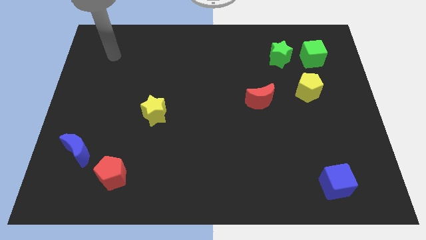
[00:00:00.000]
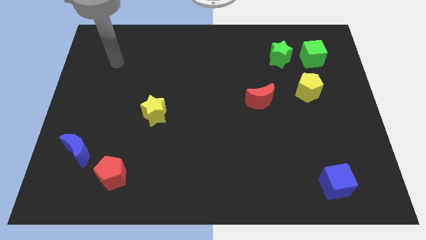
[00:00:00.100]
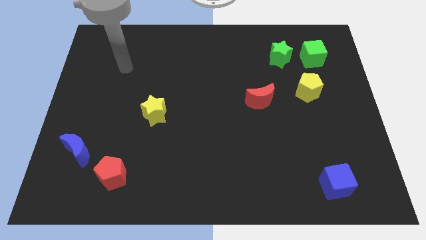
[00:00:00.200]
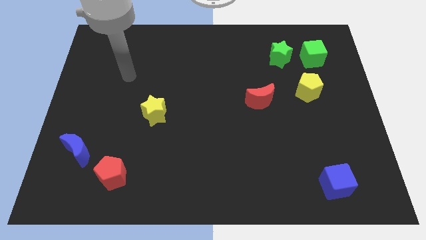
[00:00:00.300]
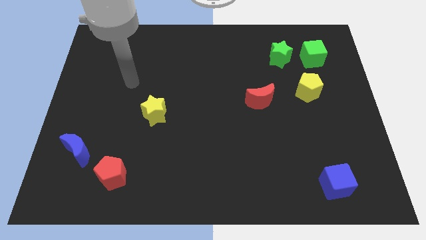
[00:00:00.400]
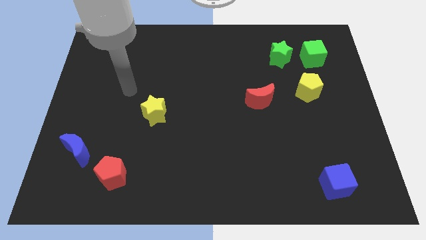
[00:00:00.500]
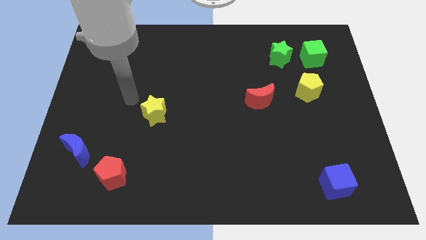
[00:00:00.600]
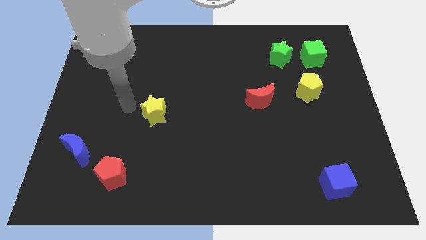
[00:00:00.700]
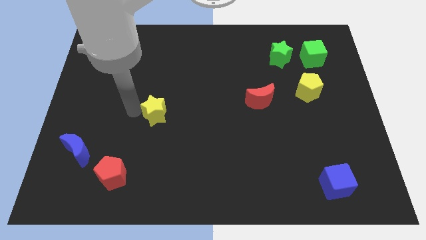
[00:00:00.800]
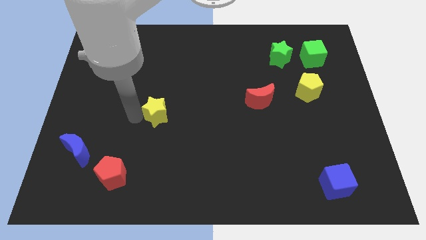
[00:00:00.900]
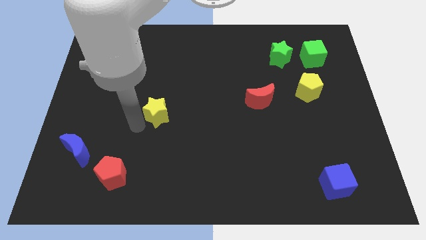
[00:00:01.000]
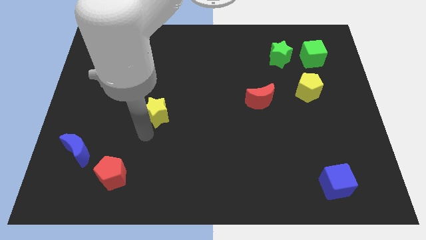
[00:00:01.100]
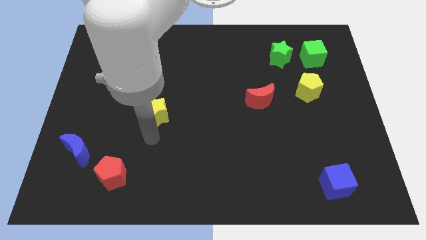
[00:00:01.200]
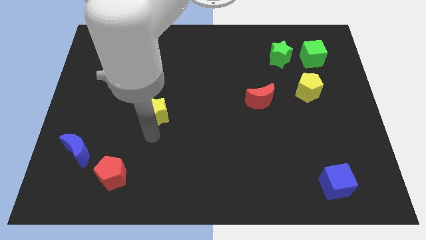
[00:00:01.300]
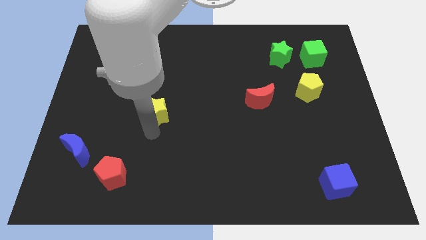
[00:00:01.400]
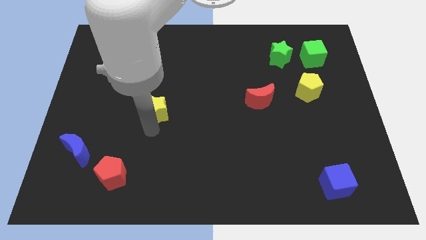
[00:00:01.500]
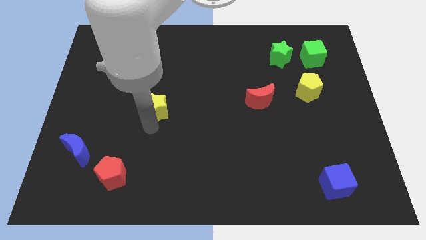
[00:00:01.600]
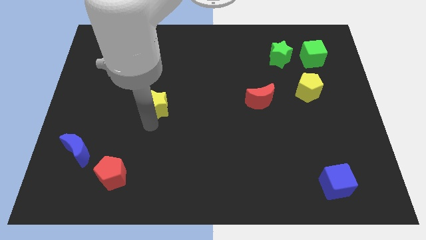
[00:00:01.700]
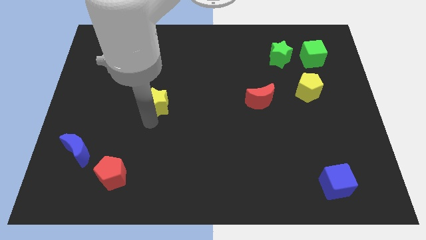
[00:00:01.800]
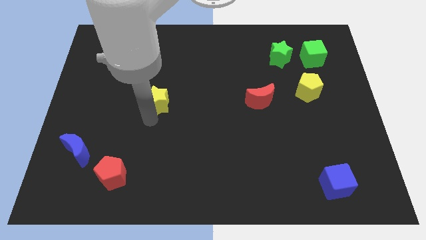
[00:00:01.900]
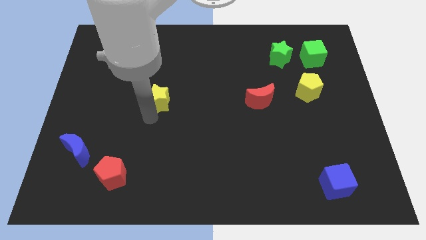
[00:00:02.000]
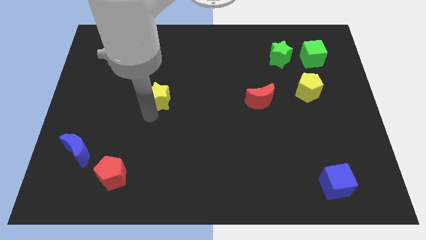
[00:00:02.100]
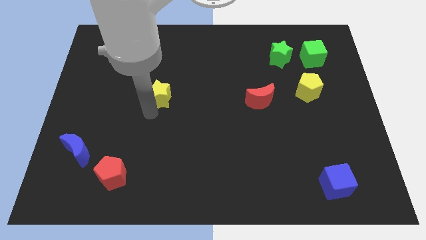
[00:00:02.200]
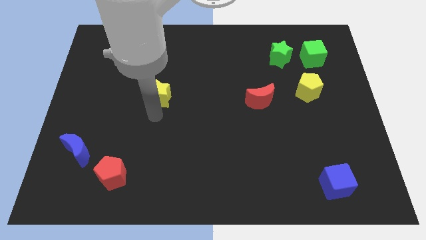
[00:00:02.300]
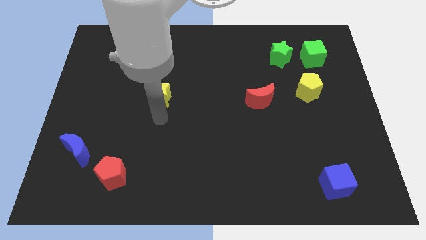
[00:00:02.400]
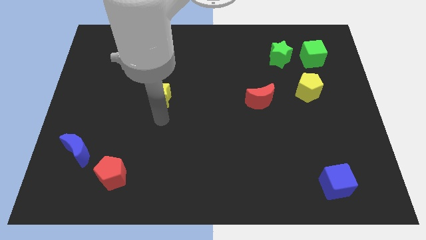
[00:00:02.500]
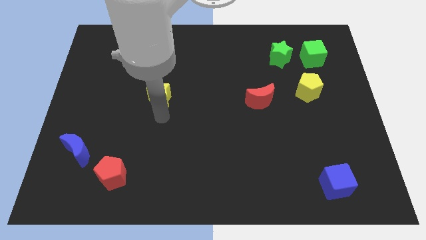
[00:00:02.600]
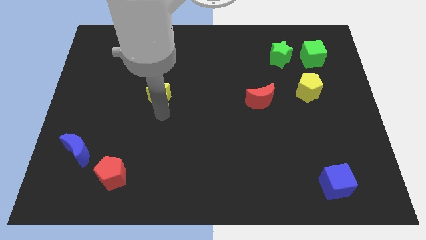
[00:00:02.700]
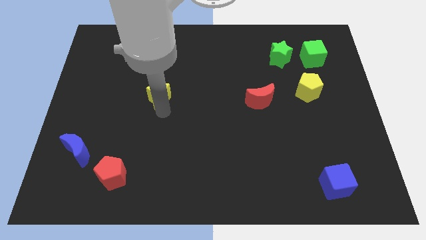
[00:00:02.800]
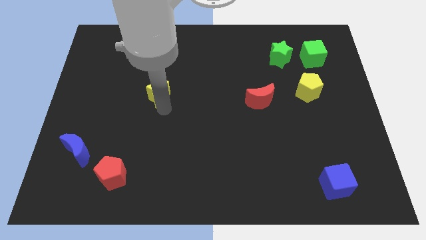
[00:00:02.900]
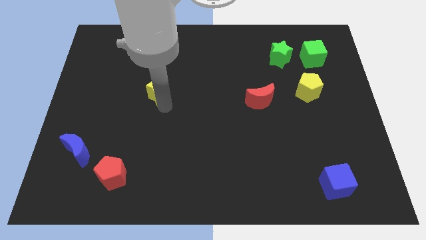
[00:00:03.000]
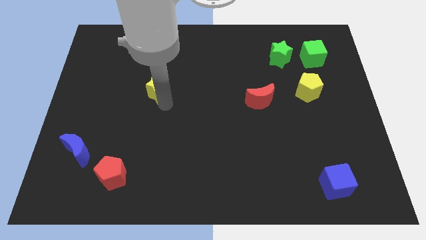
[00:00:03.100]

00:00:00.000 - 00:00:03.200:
push the yellow star a bit up

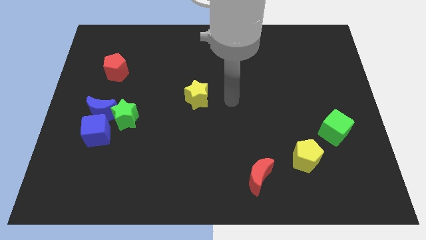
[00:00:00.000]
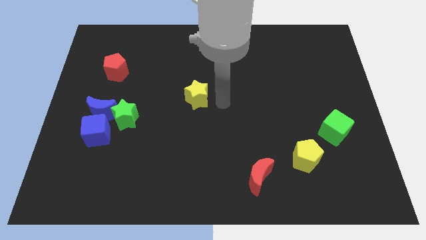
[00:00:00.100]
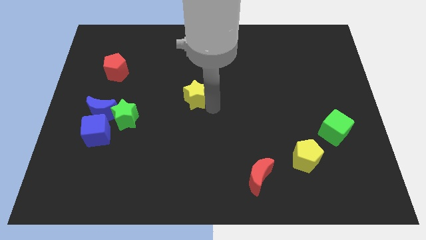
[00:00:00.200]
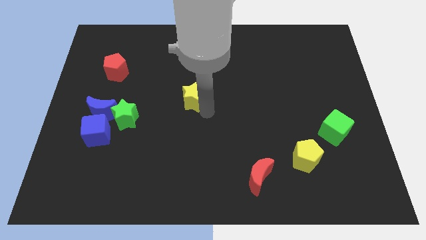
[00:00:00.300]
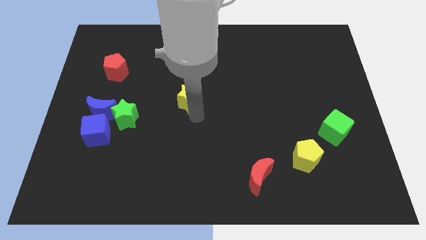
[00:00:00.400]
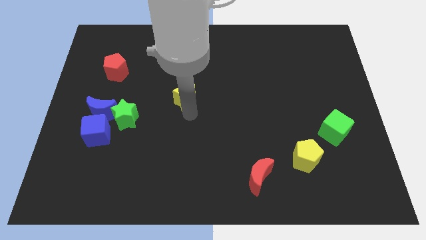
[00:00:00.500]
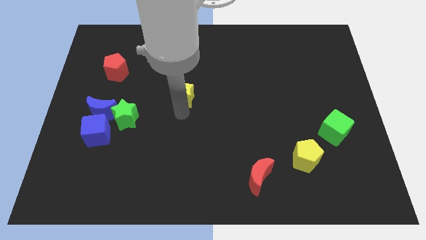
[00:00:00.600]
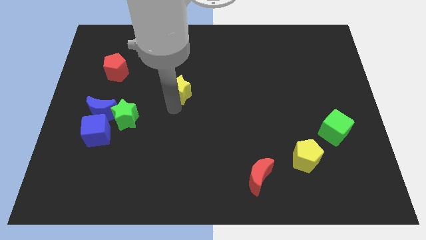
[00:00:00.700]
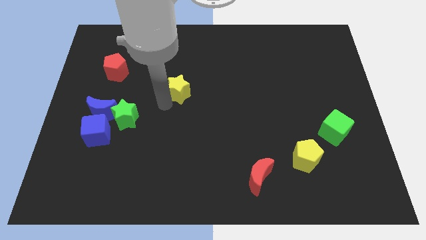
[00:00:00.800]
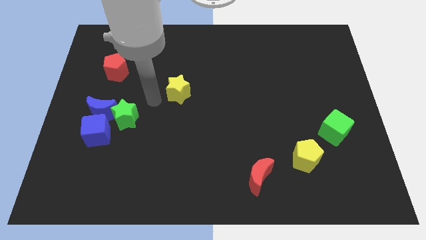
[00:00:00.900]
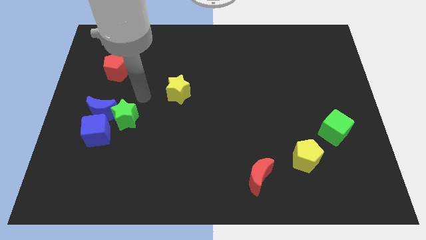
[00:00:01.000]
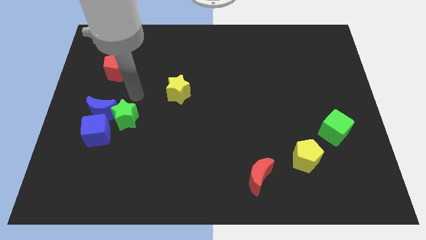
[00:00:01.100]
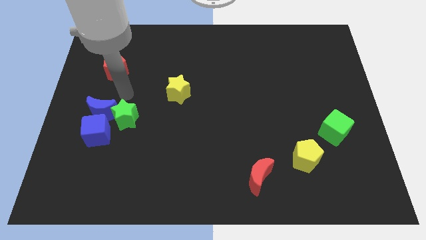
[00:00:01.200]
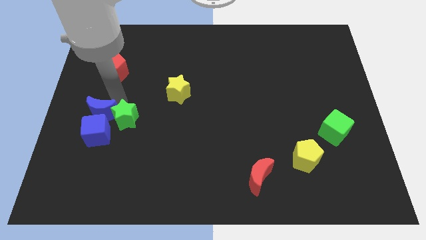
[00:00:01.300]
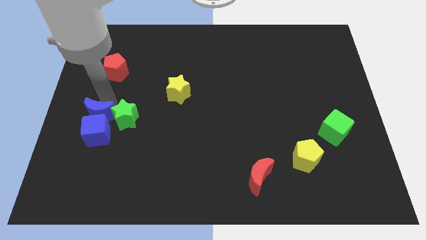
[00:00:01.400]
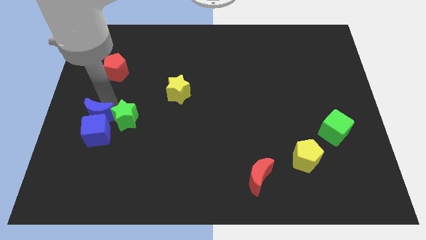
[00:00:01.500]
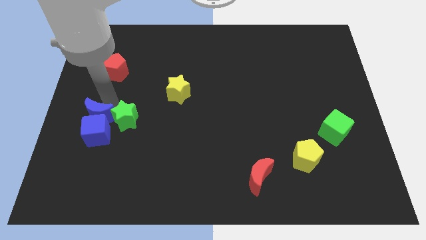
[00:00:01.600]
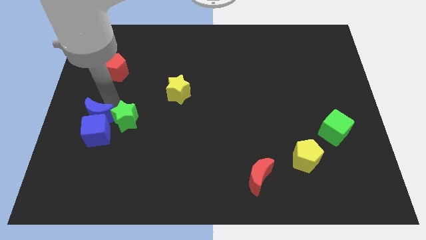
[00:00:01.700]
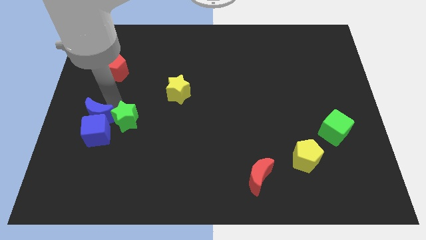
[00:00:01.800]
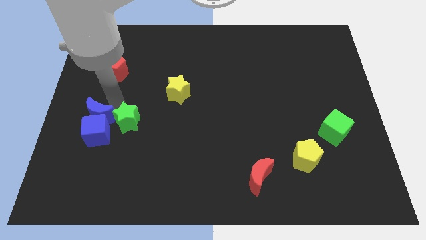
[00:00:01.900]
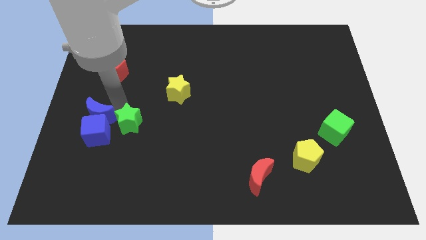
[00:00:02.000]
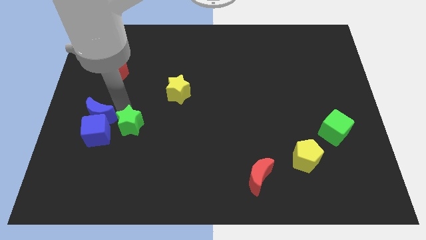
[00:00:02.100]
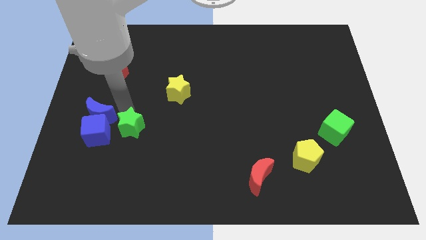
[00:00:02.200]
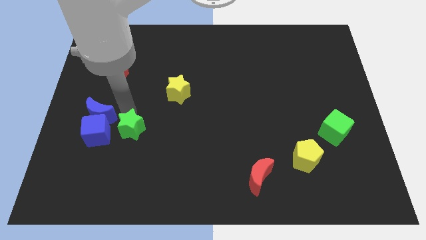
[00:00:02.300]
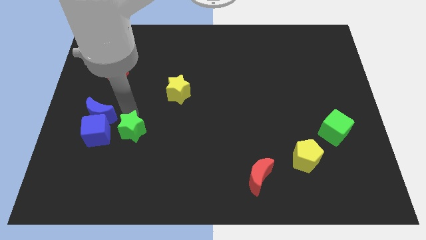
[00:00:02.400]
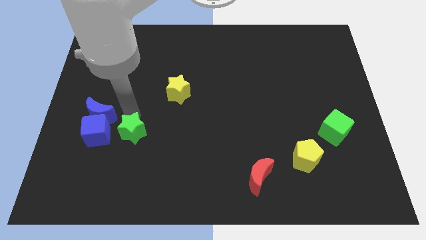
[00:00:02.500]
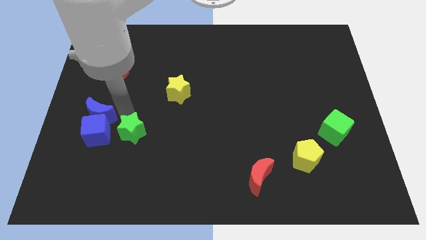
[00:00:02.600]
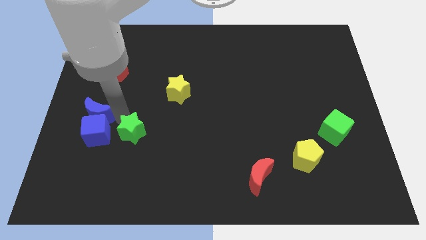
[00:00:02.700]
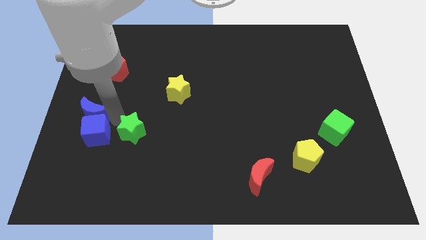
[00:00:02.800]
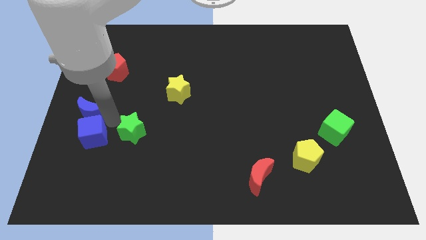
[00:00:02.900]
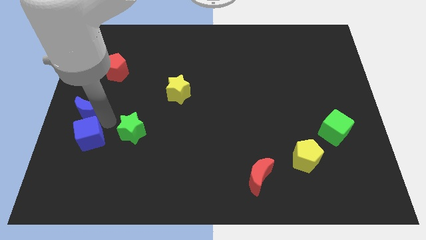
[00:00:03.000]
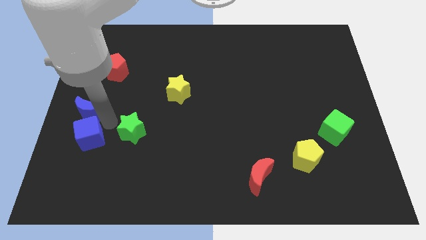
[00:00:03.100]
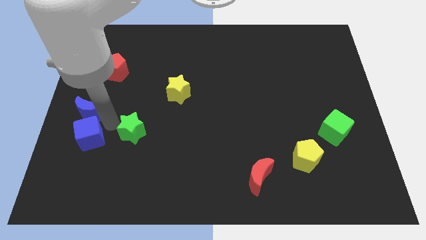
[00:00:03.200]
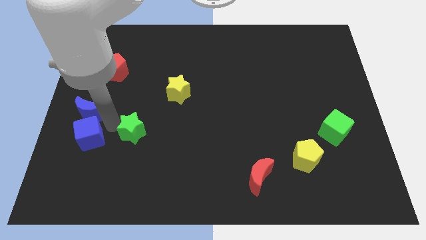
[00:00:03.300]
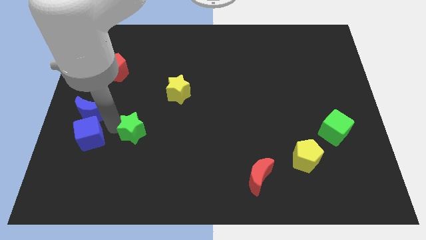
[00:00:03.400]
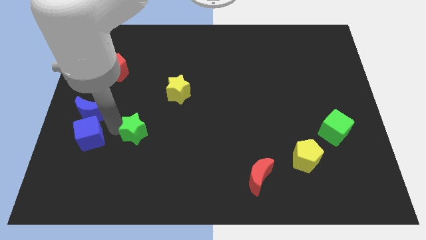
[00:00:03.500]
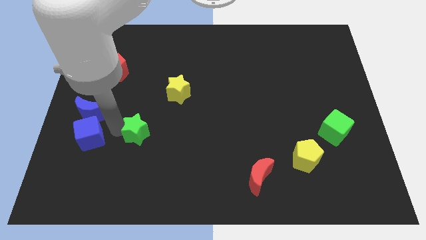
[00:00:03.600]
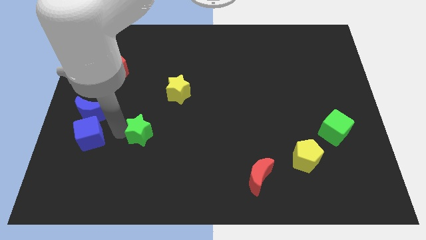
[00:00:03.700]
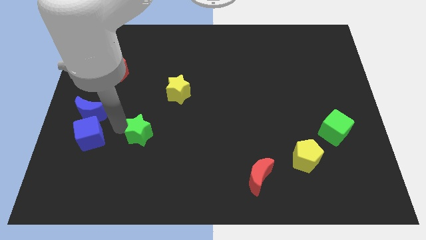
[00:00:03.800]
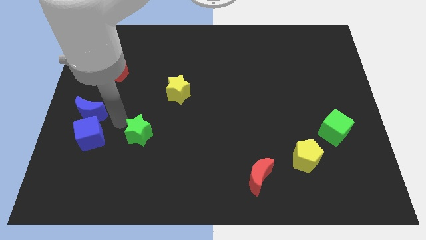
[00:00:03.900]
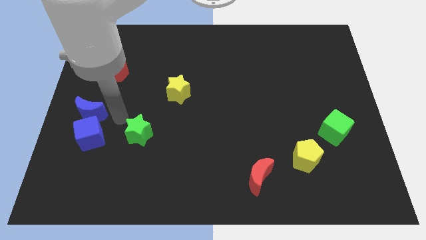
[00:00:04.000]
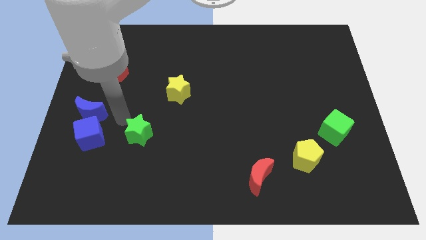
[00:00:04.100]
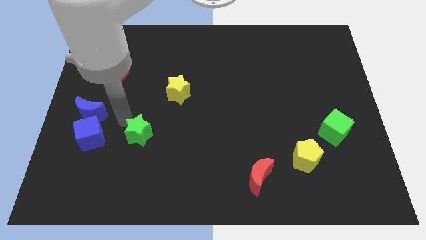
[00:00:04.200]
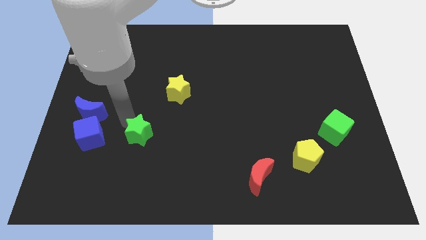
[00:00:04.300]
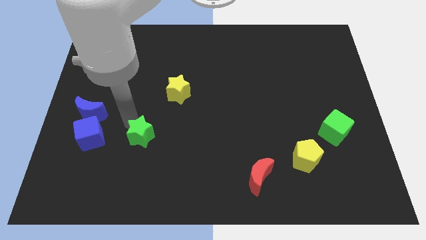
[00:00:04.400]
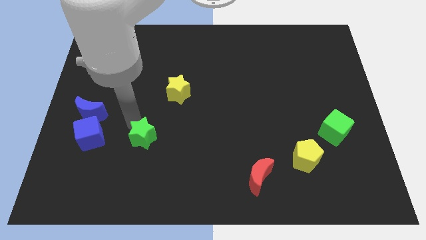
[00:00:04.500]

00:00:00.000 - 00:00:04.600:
move the green star down and right diagonally somewhat

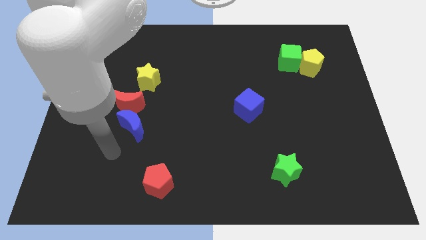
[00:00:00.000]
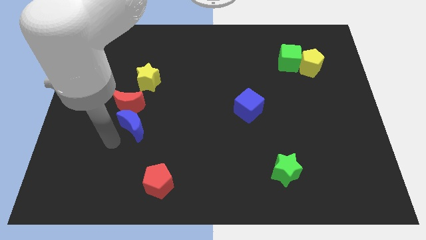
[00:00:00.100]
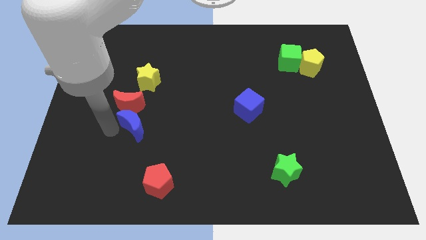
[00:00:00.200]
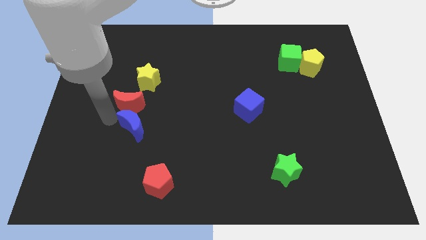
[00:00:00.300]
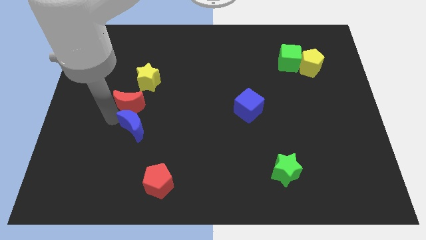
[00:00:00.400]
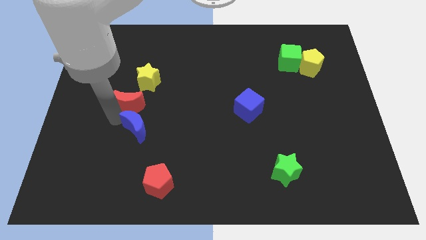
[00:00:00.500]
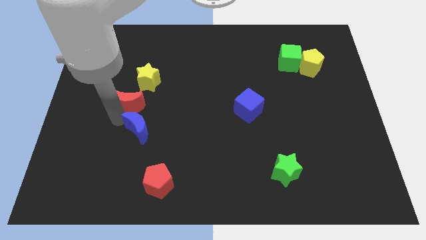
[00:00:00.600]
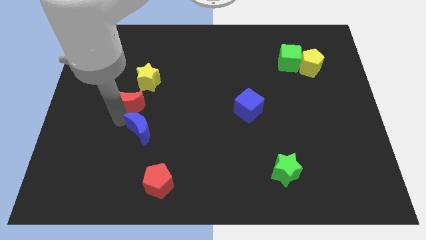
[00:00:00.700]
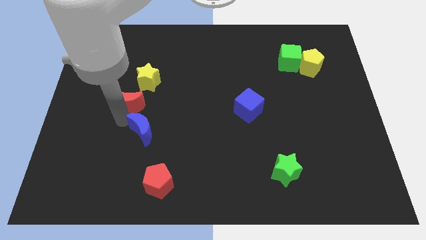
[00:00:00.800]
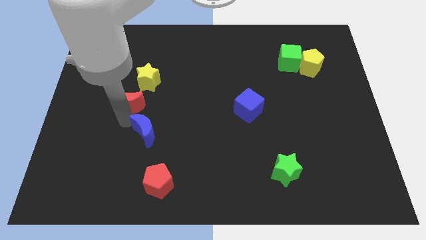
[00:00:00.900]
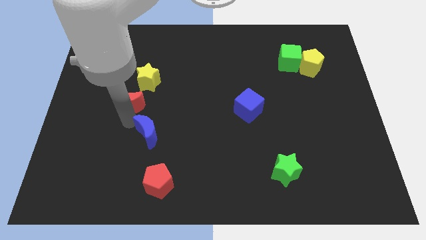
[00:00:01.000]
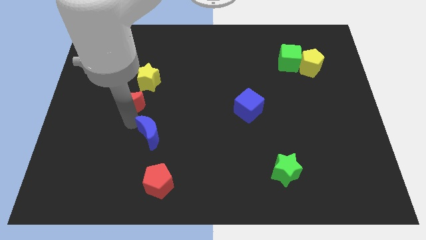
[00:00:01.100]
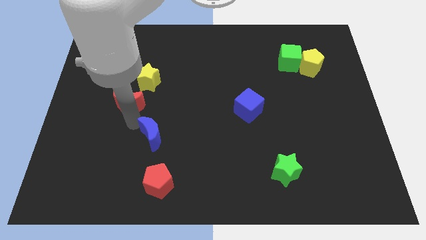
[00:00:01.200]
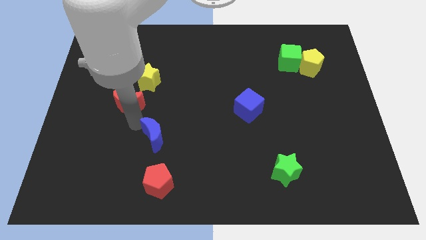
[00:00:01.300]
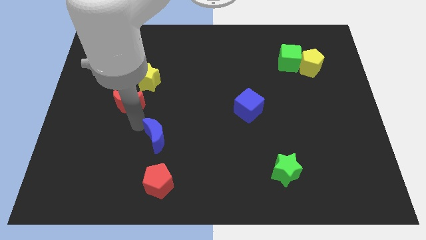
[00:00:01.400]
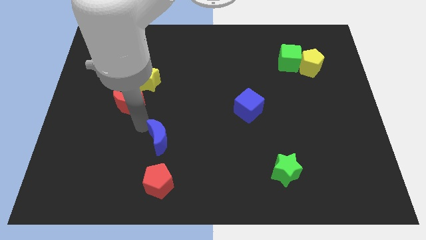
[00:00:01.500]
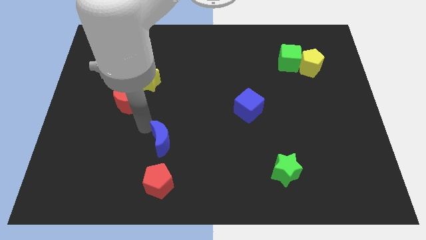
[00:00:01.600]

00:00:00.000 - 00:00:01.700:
slide the blue moon down and to the right slightly
